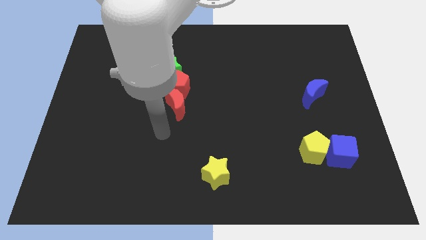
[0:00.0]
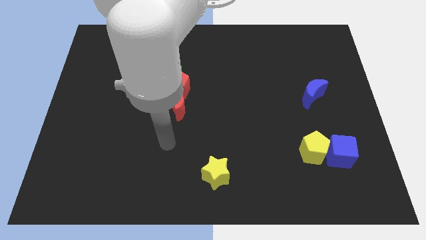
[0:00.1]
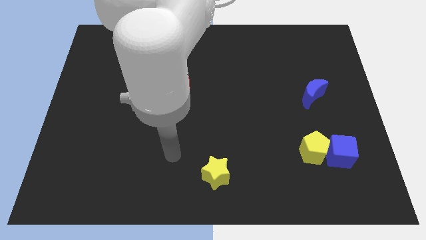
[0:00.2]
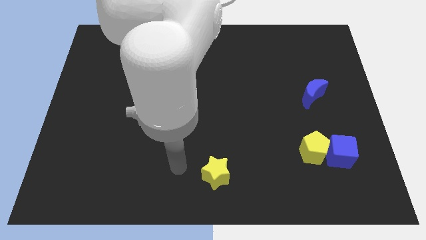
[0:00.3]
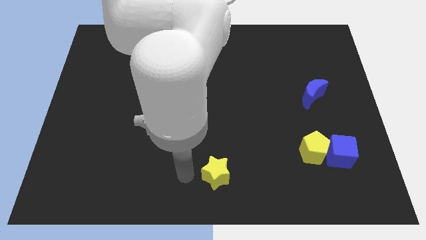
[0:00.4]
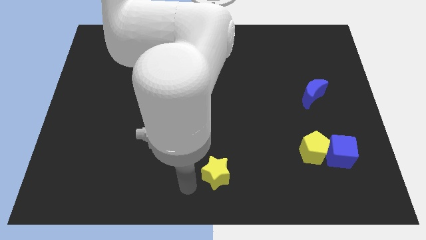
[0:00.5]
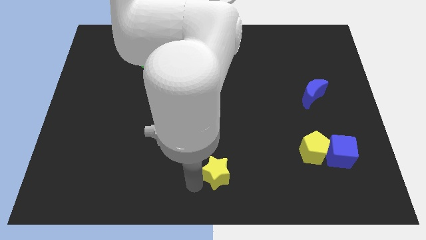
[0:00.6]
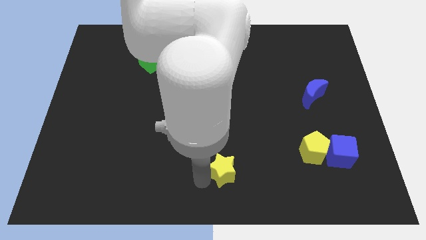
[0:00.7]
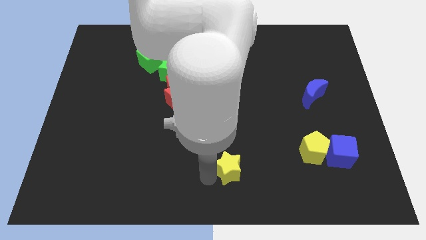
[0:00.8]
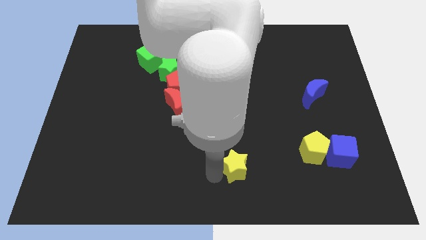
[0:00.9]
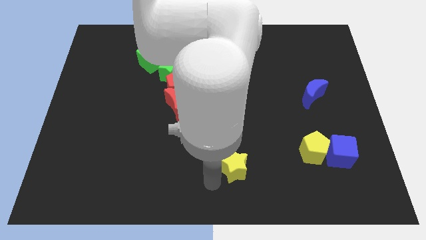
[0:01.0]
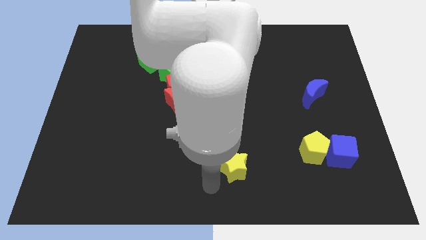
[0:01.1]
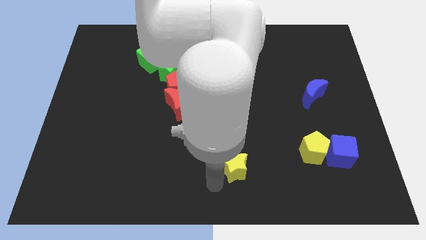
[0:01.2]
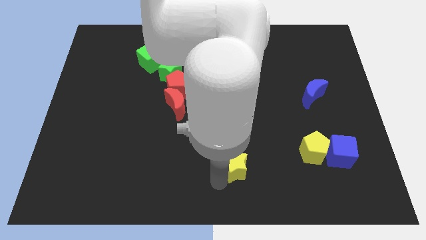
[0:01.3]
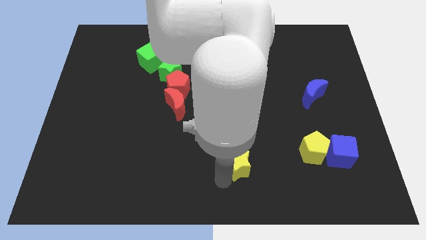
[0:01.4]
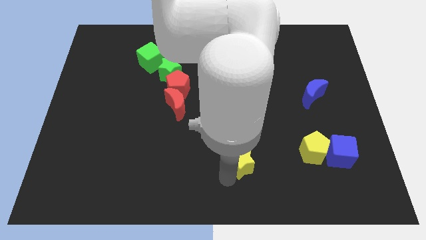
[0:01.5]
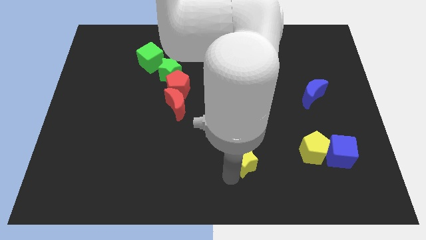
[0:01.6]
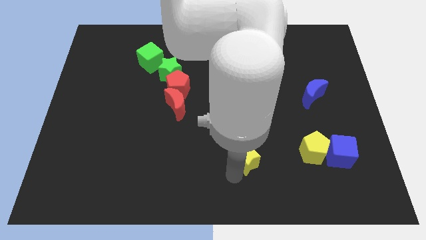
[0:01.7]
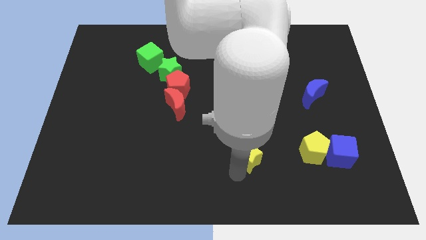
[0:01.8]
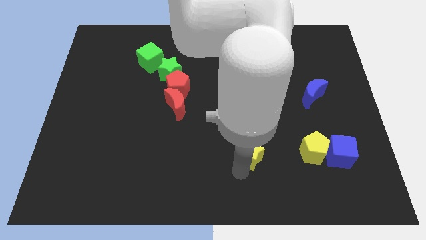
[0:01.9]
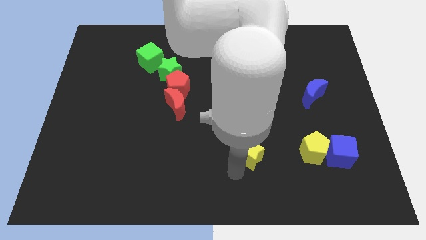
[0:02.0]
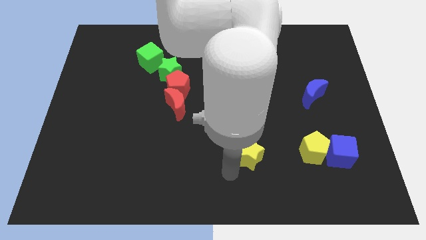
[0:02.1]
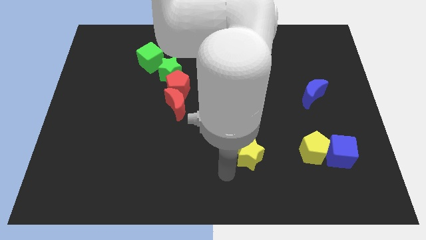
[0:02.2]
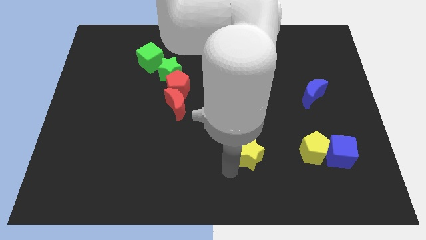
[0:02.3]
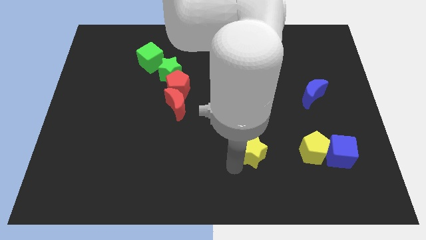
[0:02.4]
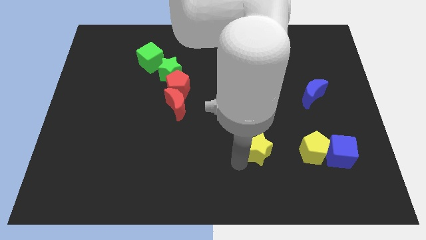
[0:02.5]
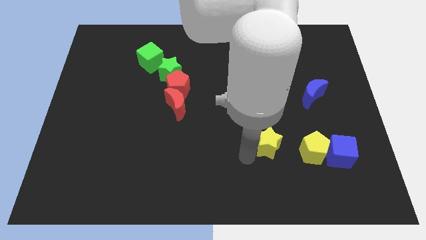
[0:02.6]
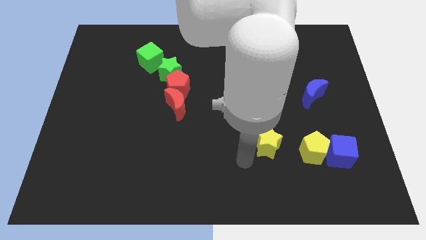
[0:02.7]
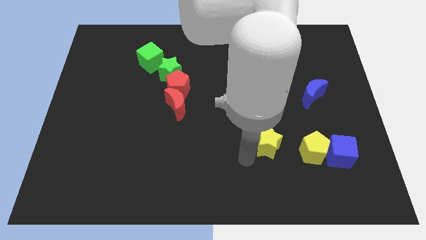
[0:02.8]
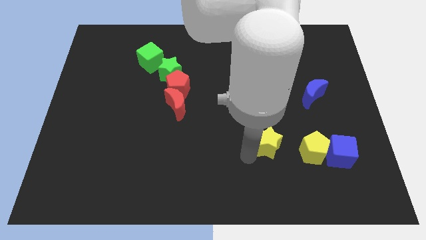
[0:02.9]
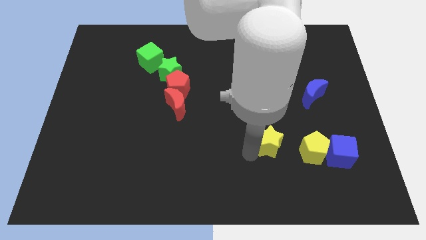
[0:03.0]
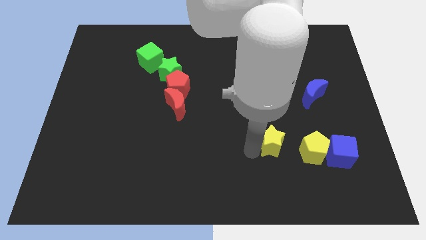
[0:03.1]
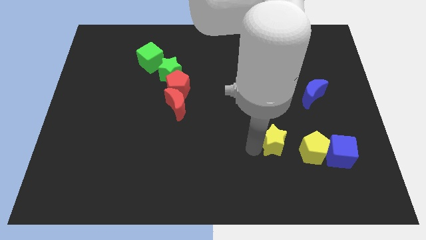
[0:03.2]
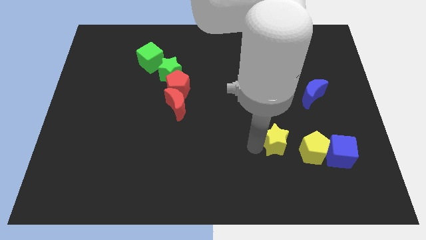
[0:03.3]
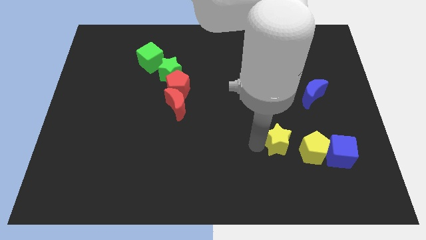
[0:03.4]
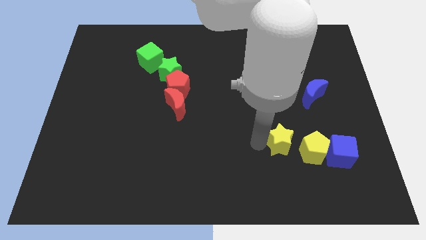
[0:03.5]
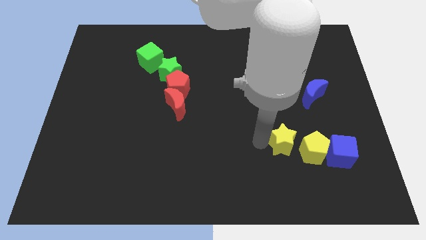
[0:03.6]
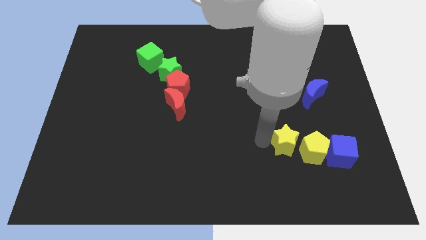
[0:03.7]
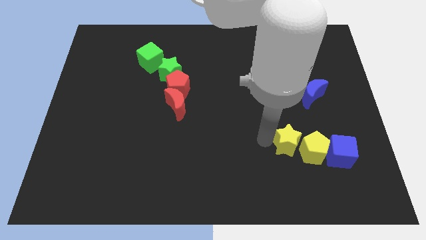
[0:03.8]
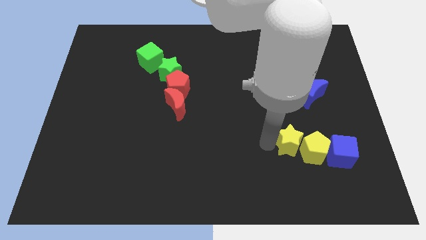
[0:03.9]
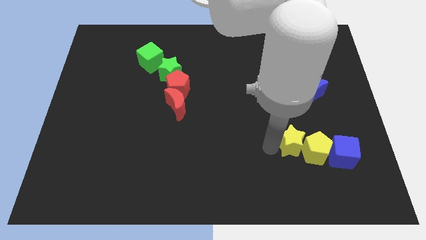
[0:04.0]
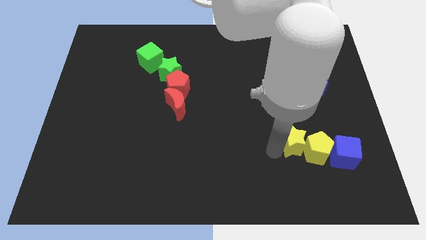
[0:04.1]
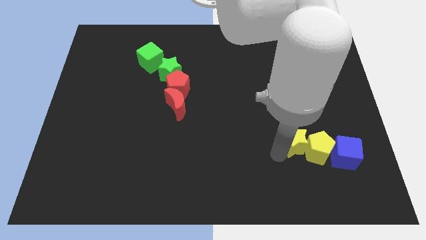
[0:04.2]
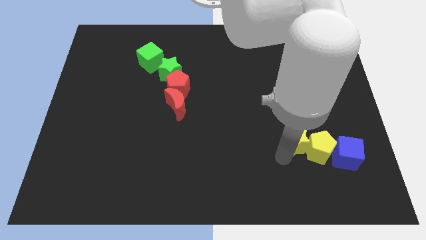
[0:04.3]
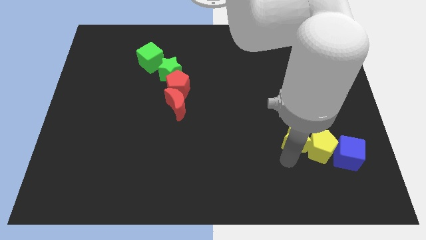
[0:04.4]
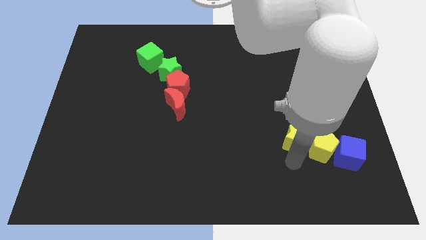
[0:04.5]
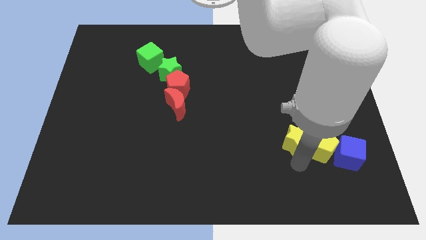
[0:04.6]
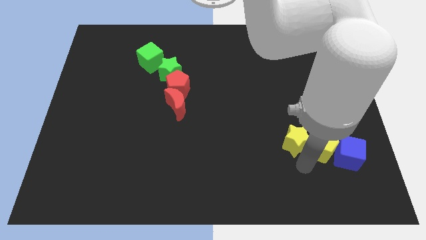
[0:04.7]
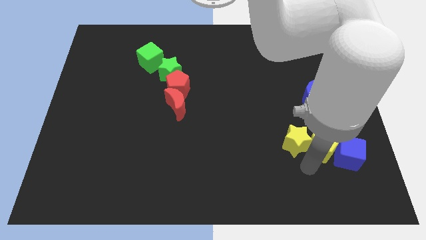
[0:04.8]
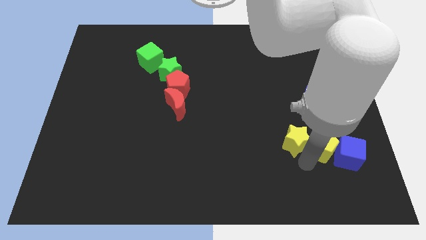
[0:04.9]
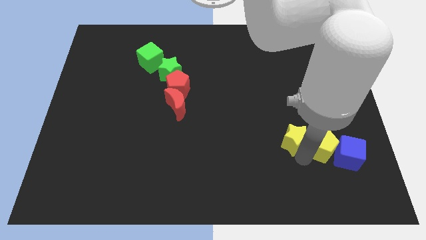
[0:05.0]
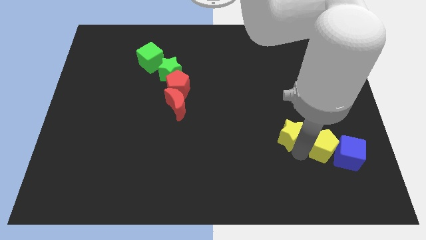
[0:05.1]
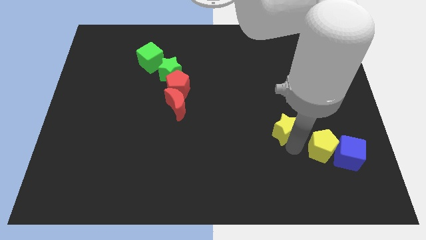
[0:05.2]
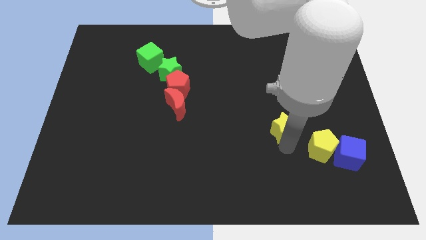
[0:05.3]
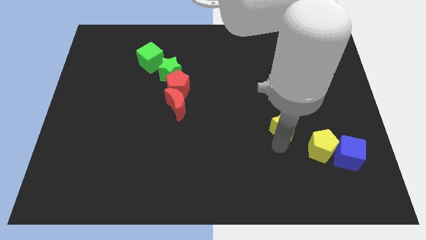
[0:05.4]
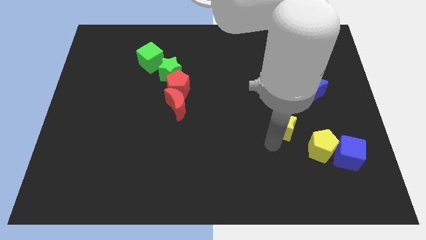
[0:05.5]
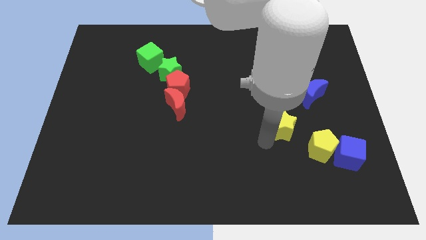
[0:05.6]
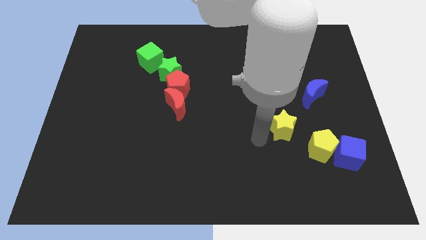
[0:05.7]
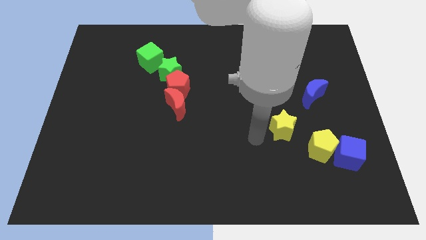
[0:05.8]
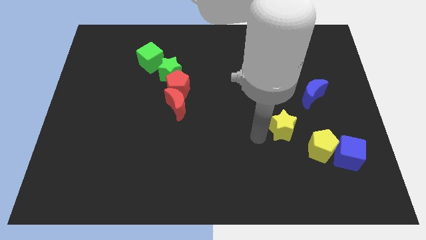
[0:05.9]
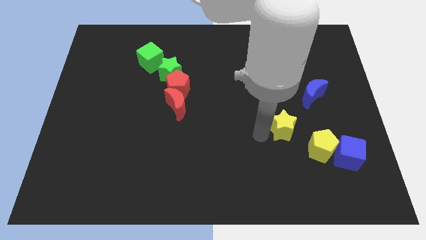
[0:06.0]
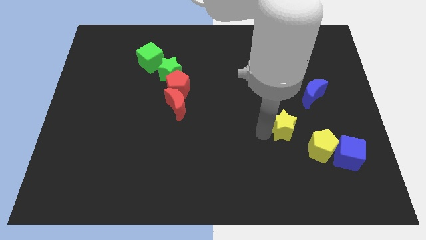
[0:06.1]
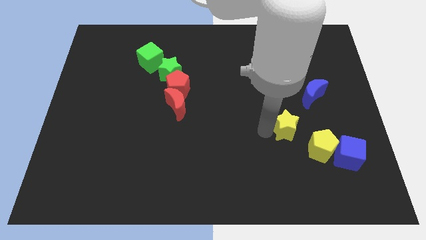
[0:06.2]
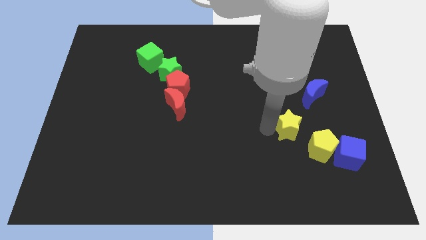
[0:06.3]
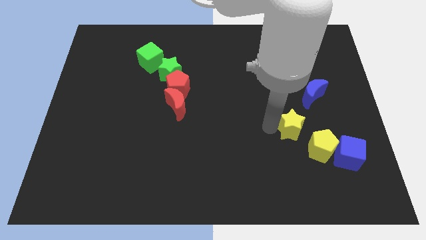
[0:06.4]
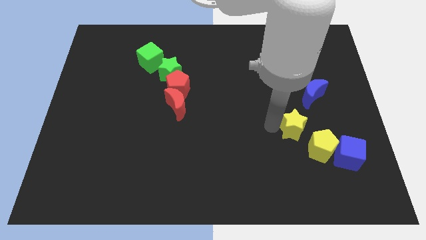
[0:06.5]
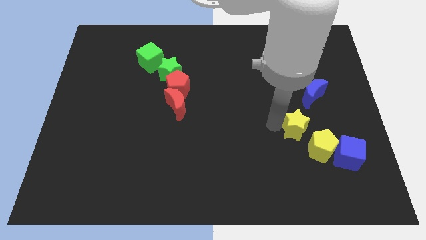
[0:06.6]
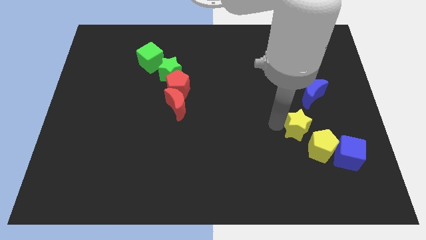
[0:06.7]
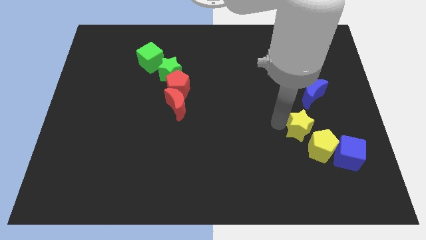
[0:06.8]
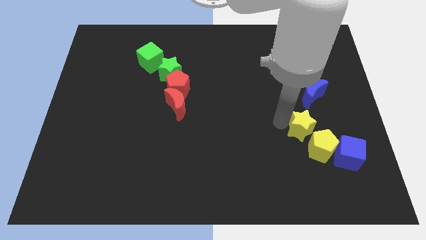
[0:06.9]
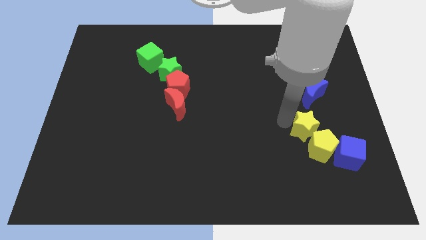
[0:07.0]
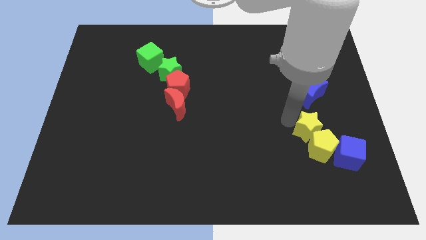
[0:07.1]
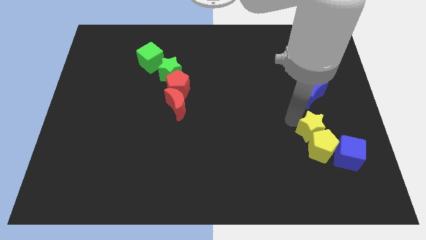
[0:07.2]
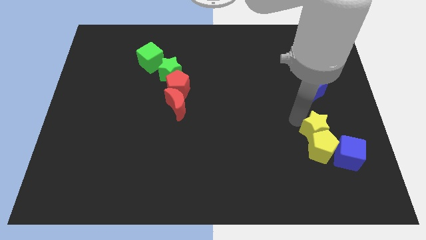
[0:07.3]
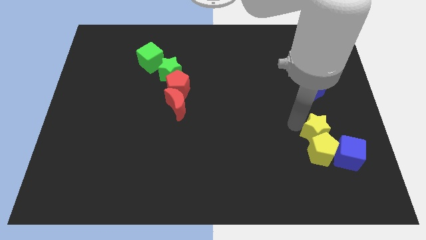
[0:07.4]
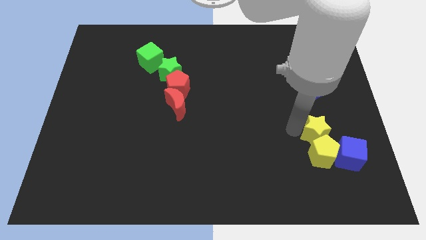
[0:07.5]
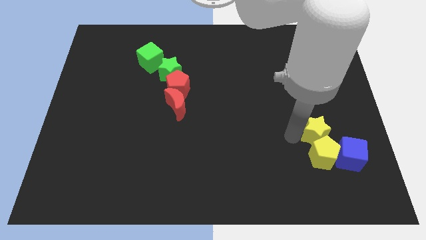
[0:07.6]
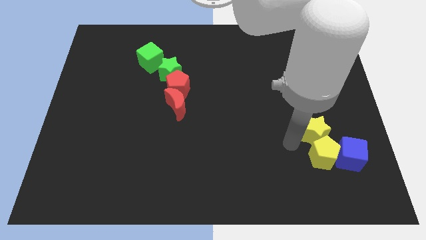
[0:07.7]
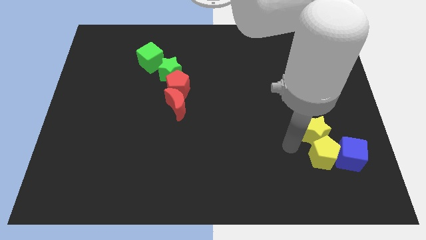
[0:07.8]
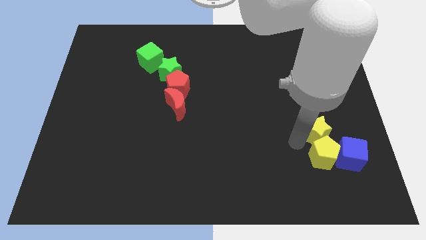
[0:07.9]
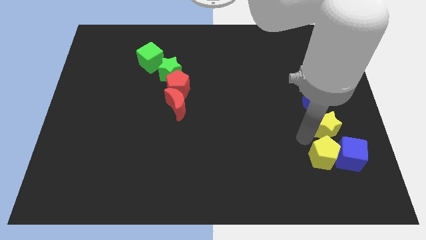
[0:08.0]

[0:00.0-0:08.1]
slide the yellow star above the blue cube
